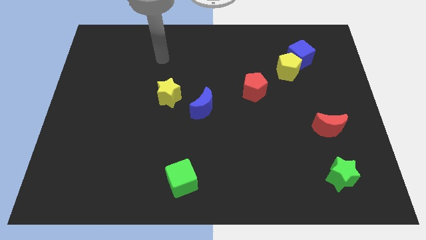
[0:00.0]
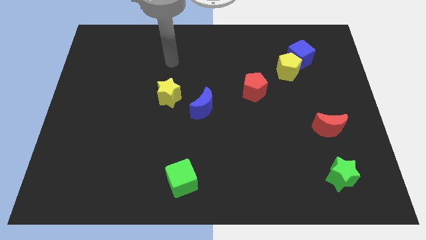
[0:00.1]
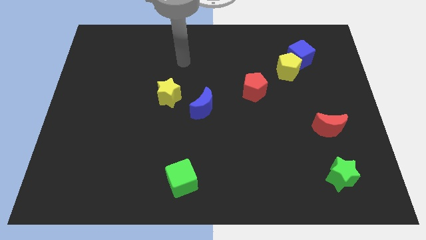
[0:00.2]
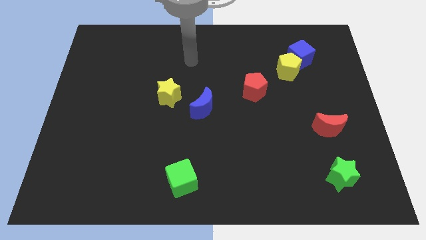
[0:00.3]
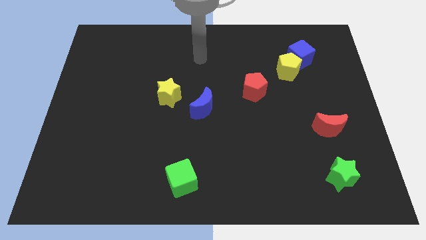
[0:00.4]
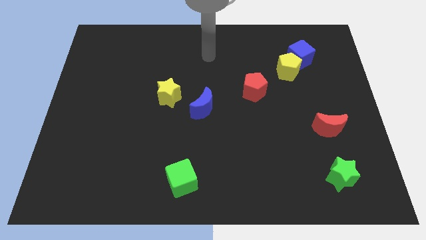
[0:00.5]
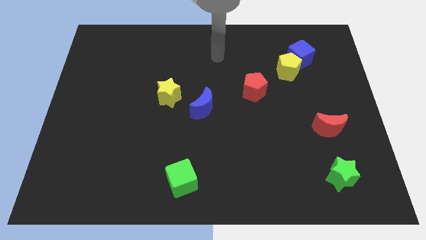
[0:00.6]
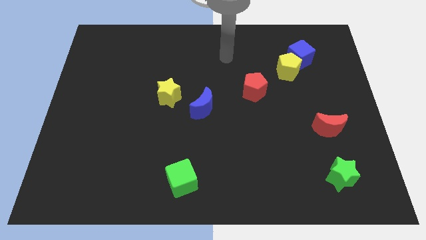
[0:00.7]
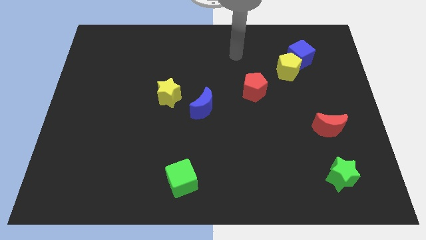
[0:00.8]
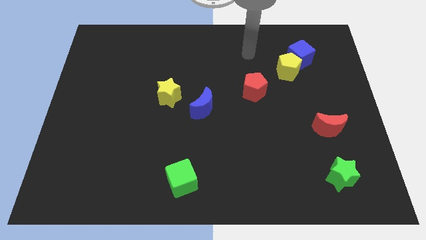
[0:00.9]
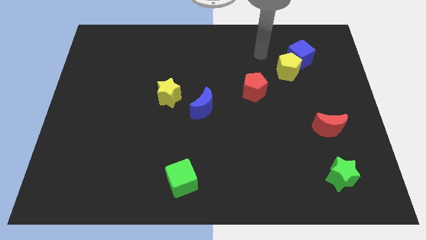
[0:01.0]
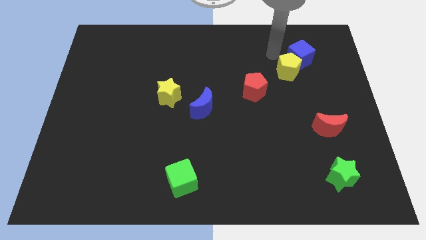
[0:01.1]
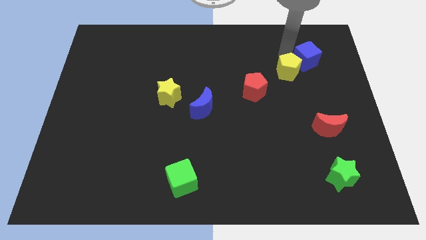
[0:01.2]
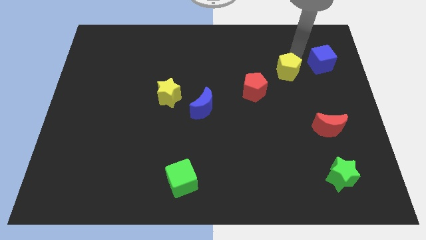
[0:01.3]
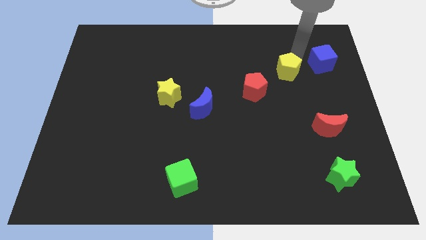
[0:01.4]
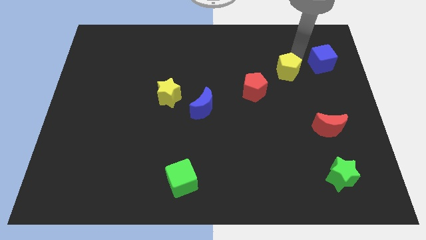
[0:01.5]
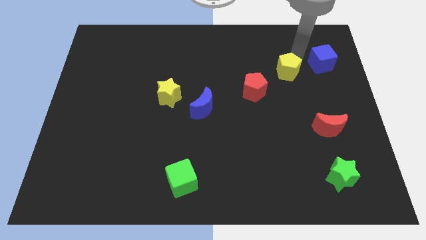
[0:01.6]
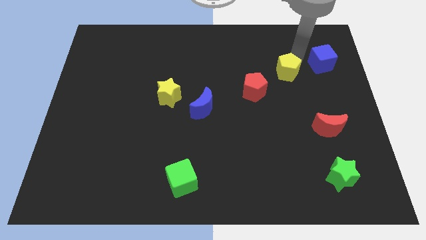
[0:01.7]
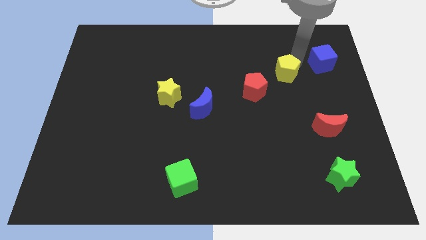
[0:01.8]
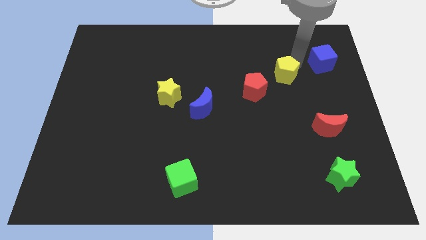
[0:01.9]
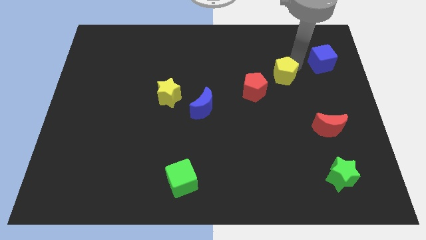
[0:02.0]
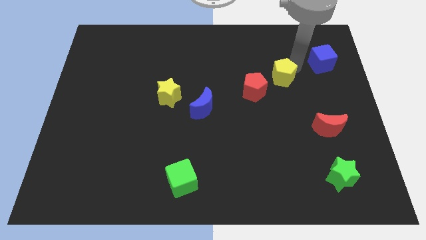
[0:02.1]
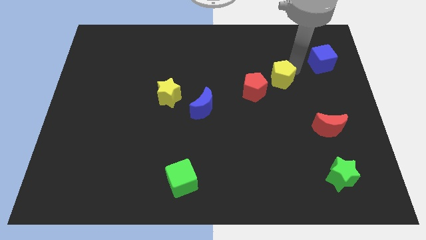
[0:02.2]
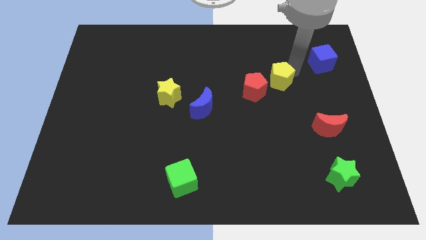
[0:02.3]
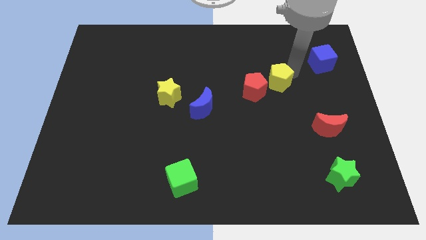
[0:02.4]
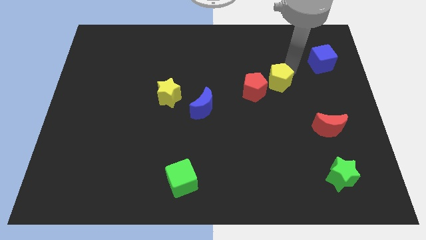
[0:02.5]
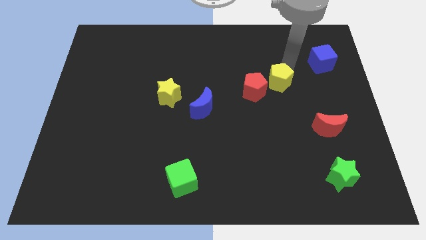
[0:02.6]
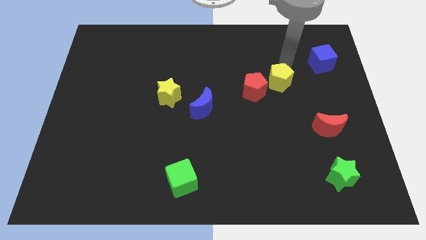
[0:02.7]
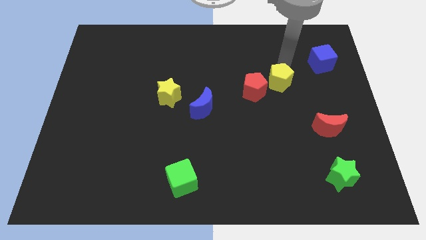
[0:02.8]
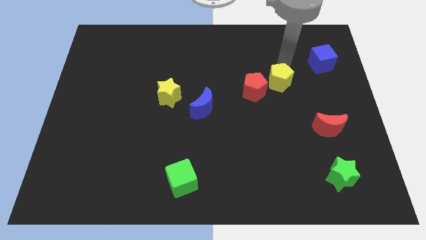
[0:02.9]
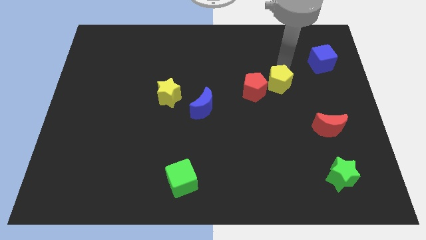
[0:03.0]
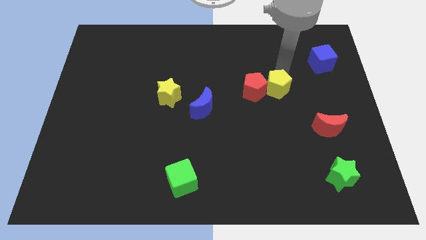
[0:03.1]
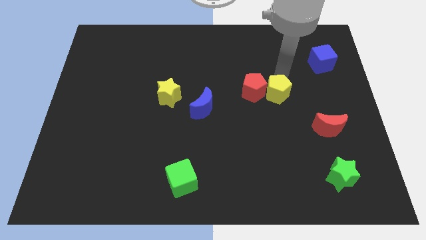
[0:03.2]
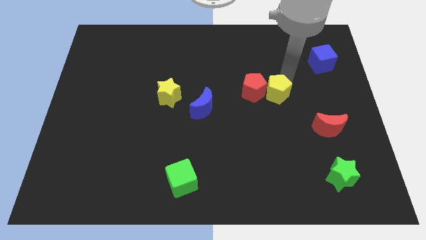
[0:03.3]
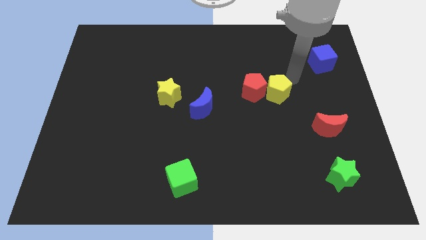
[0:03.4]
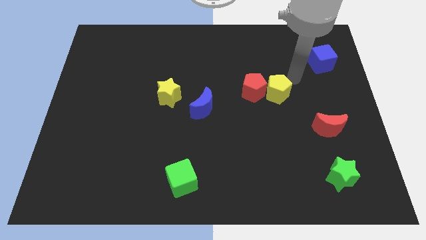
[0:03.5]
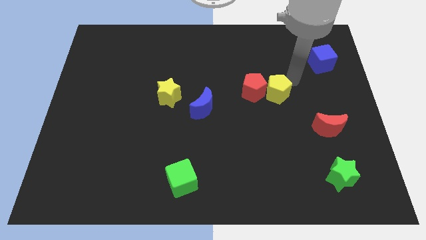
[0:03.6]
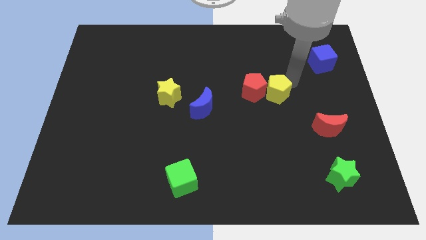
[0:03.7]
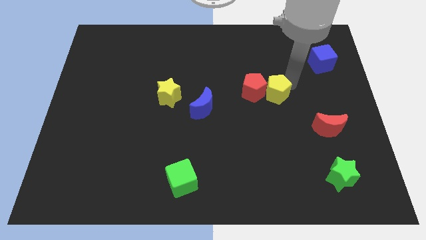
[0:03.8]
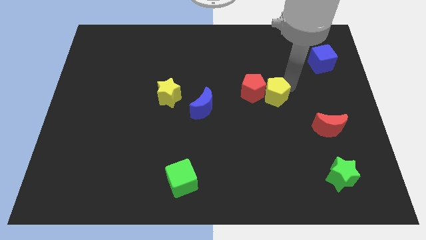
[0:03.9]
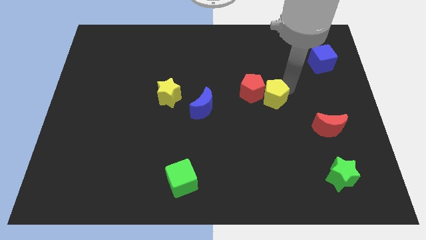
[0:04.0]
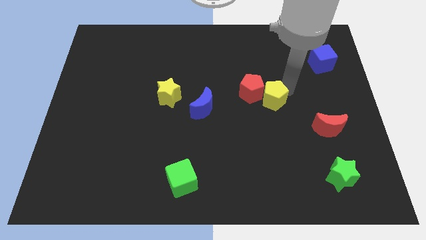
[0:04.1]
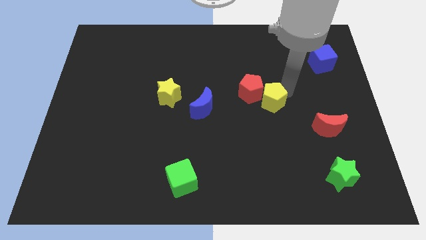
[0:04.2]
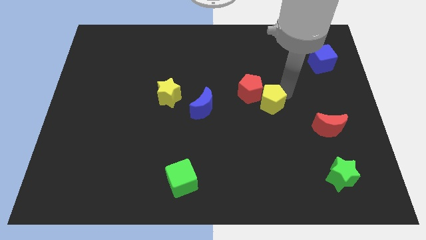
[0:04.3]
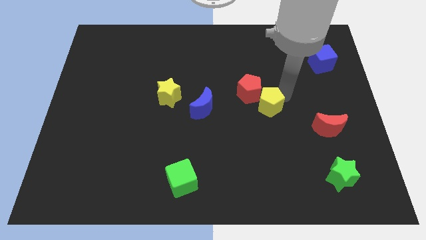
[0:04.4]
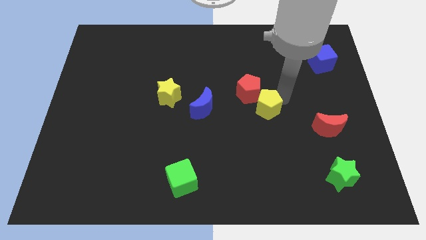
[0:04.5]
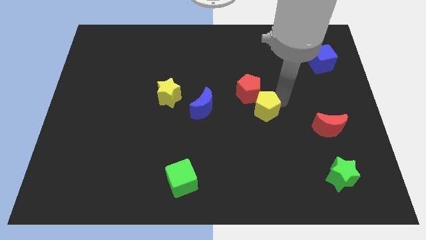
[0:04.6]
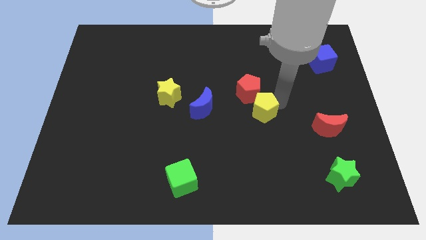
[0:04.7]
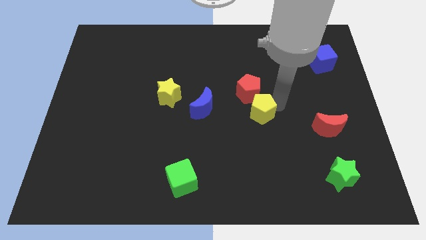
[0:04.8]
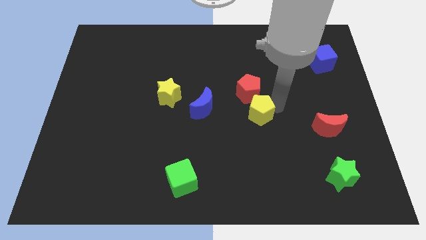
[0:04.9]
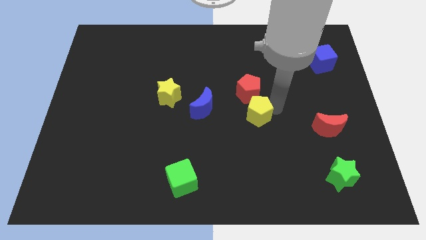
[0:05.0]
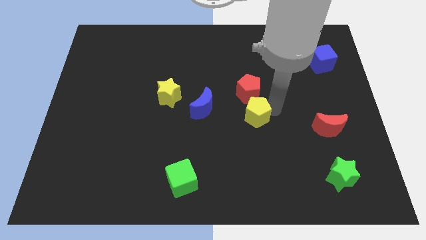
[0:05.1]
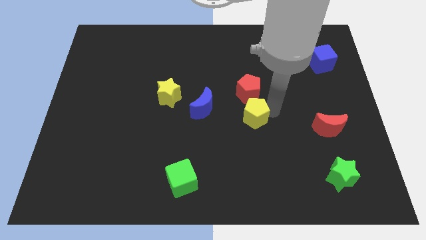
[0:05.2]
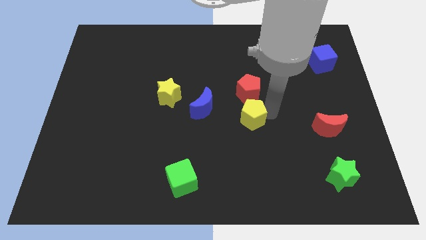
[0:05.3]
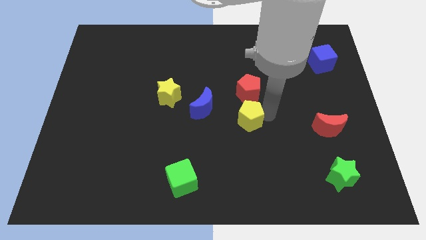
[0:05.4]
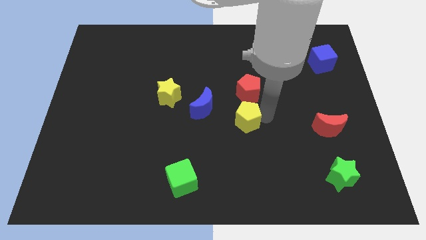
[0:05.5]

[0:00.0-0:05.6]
push the yellow pentagon to the bottom right side of the blue moon

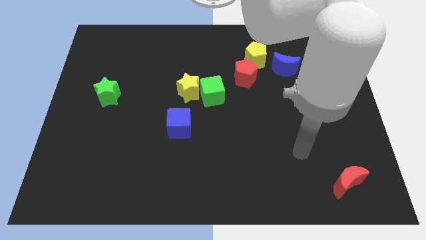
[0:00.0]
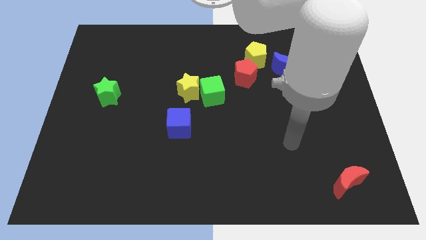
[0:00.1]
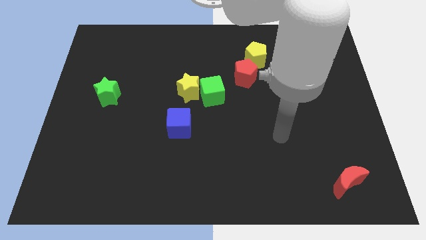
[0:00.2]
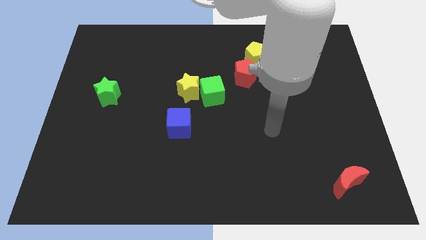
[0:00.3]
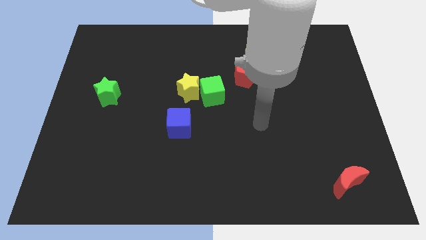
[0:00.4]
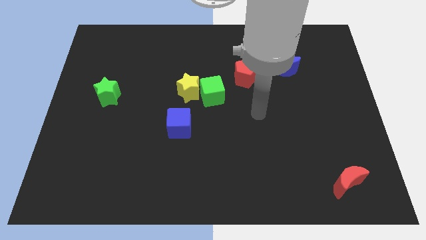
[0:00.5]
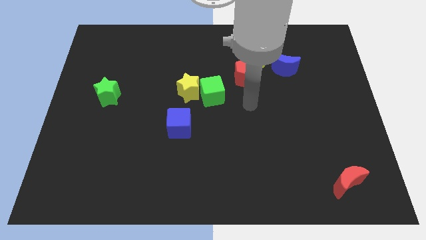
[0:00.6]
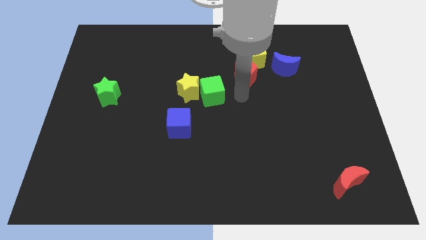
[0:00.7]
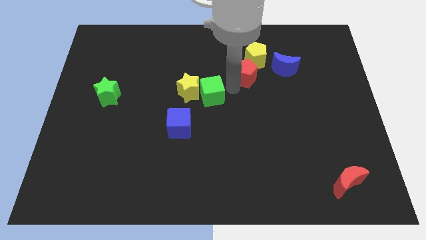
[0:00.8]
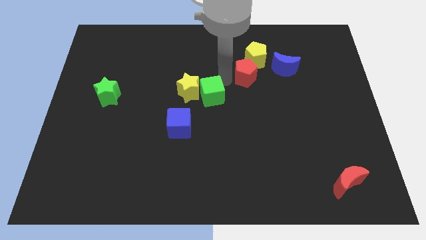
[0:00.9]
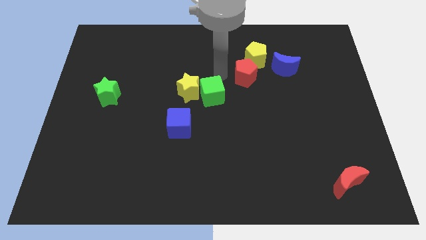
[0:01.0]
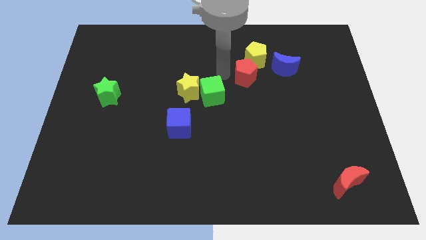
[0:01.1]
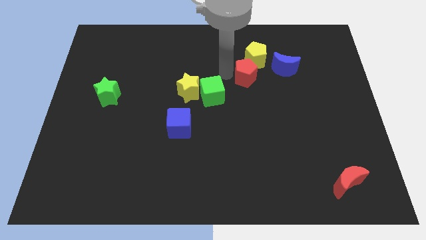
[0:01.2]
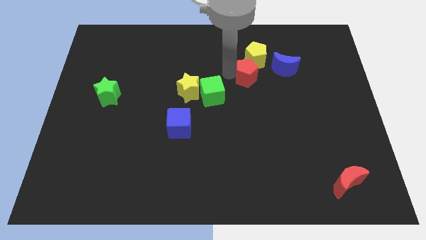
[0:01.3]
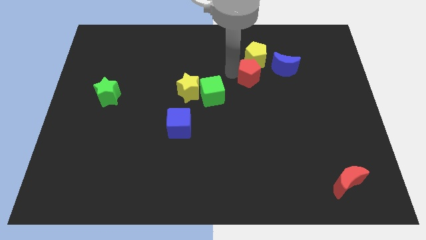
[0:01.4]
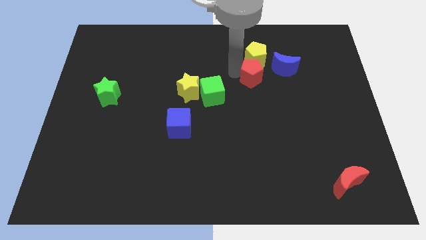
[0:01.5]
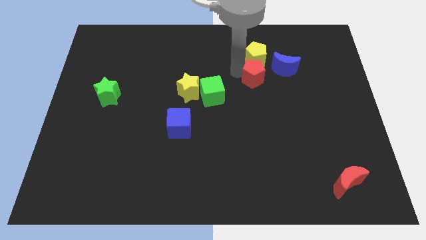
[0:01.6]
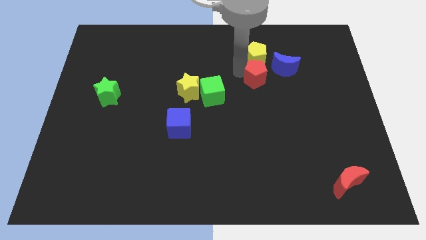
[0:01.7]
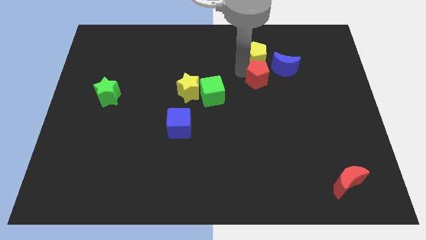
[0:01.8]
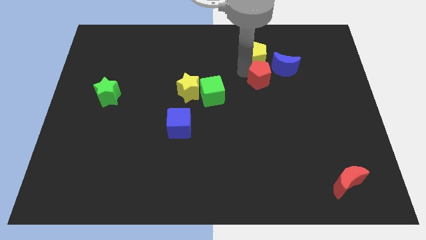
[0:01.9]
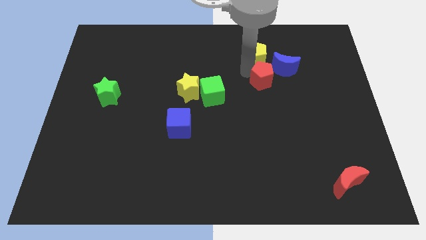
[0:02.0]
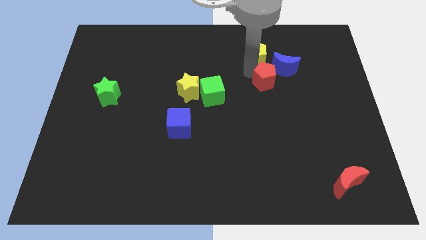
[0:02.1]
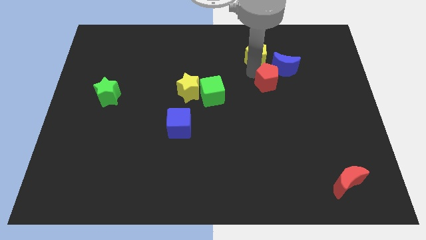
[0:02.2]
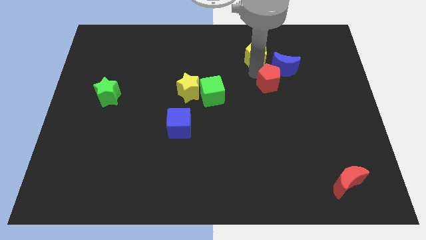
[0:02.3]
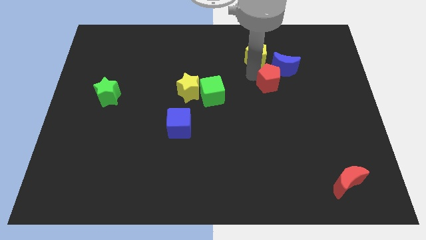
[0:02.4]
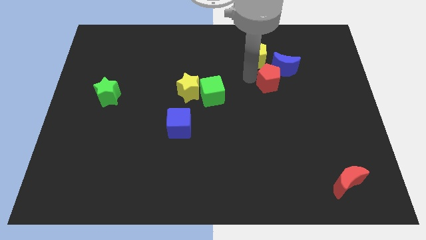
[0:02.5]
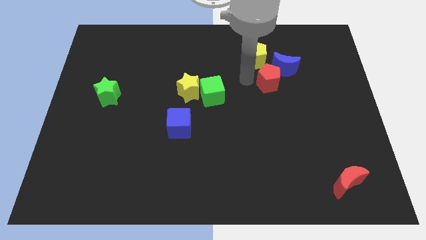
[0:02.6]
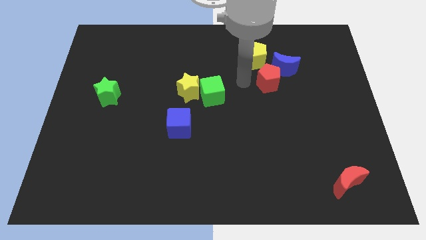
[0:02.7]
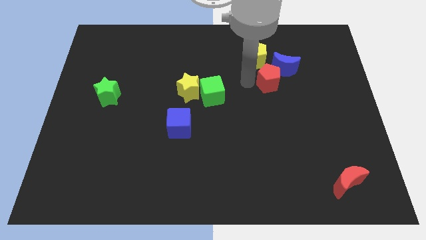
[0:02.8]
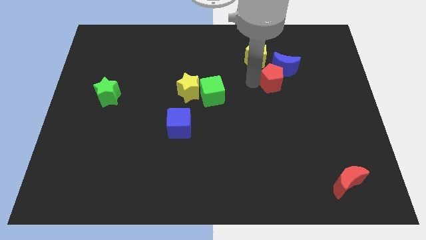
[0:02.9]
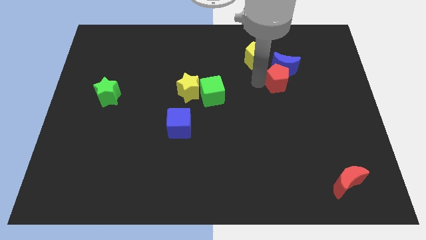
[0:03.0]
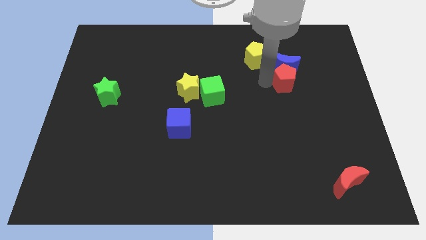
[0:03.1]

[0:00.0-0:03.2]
slide the red pentagon to the bottom right side of the blue moon
